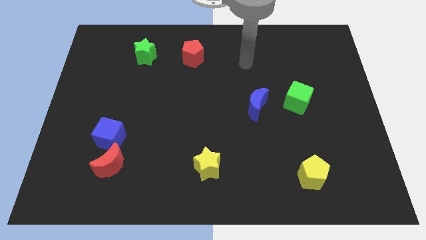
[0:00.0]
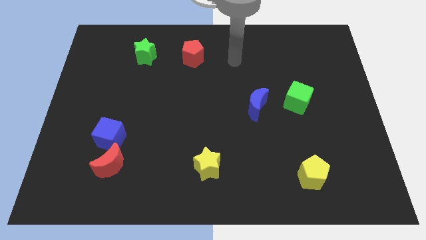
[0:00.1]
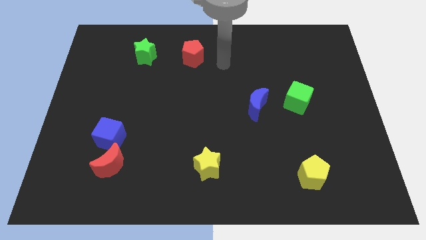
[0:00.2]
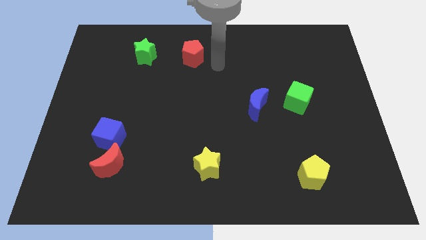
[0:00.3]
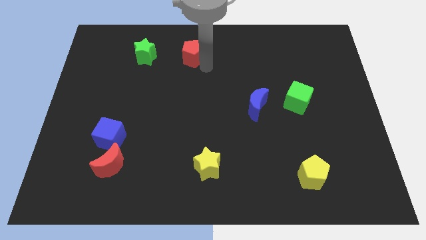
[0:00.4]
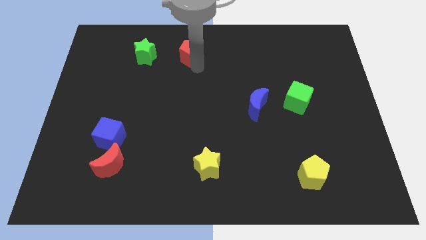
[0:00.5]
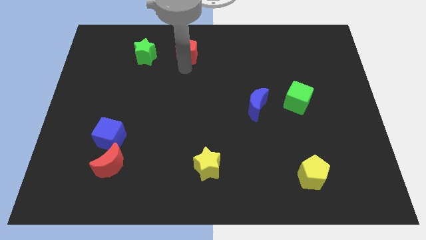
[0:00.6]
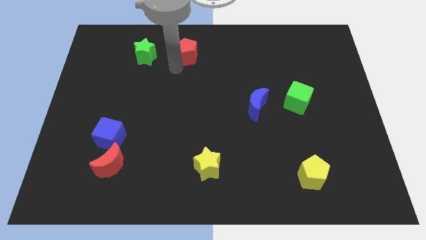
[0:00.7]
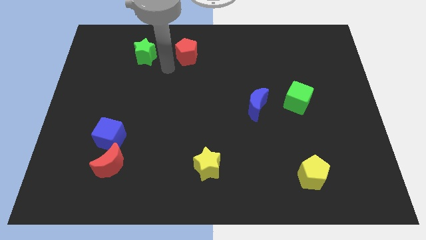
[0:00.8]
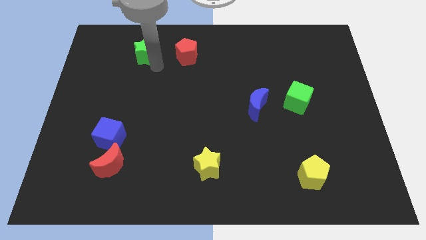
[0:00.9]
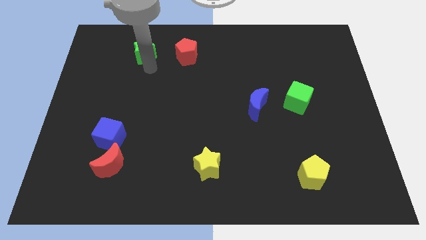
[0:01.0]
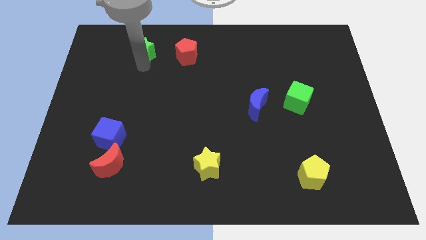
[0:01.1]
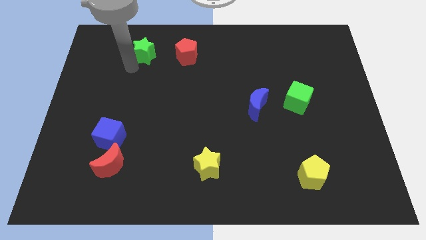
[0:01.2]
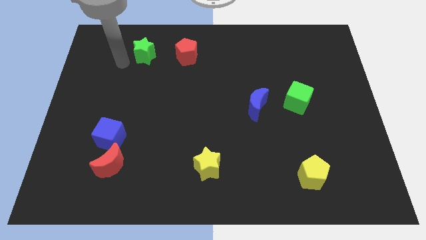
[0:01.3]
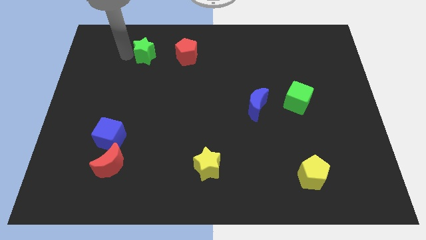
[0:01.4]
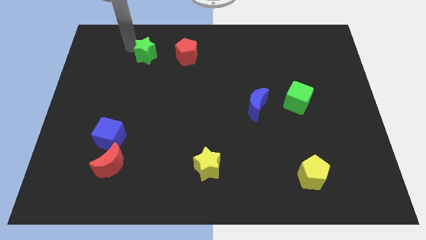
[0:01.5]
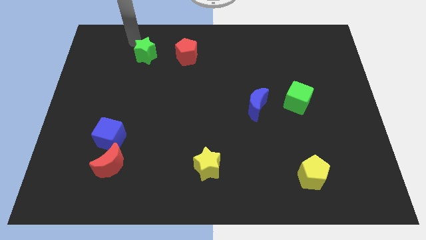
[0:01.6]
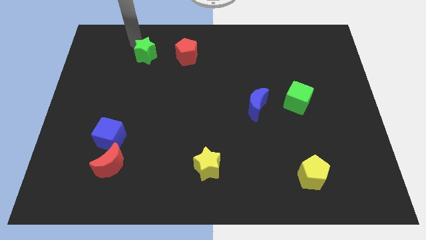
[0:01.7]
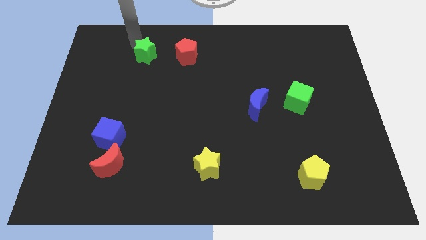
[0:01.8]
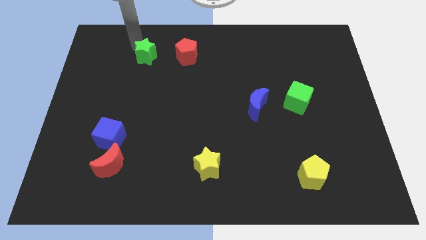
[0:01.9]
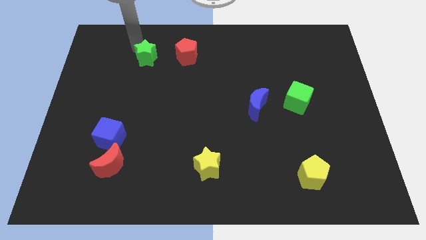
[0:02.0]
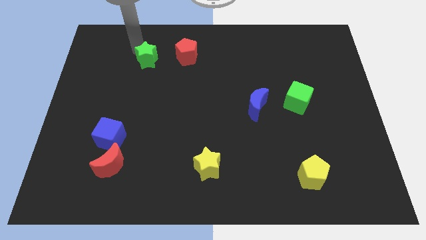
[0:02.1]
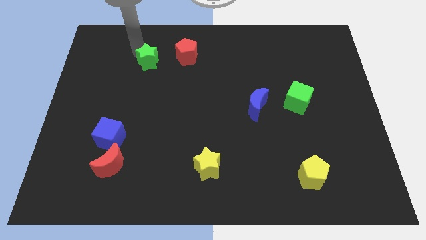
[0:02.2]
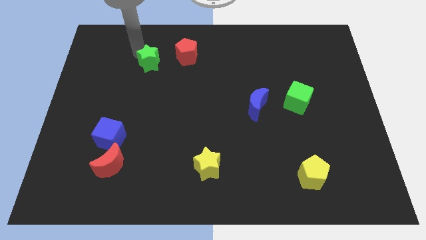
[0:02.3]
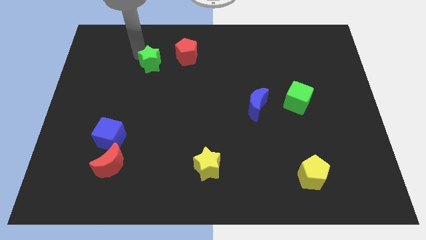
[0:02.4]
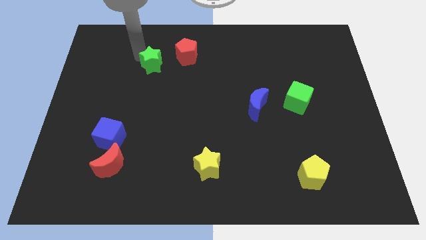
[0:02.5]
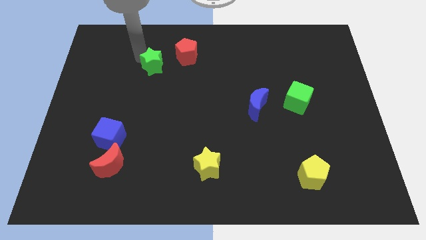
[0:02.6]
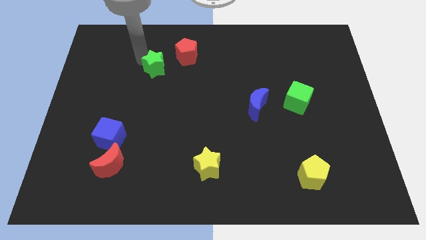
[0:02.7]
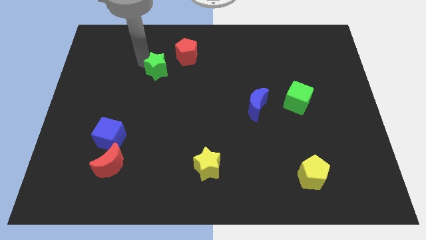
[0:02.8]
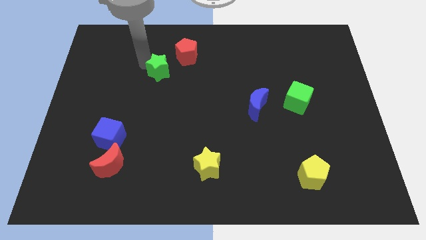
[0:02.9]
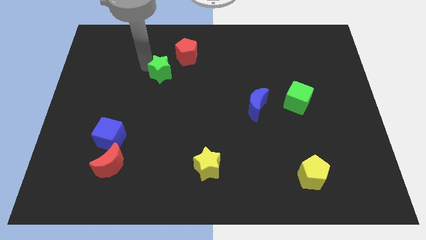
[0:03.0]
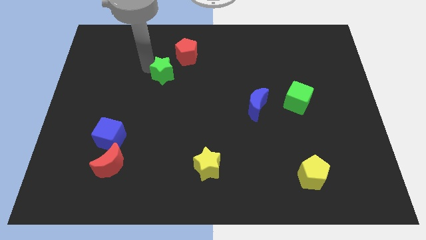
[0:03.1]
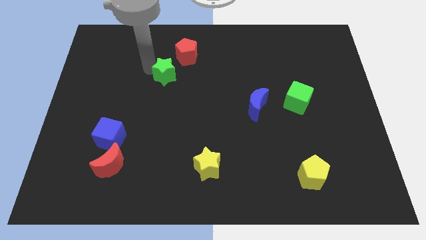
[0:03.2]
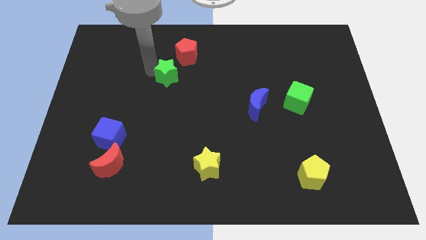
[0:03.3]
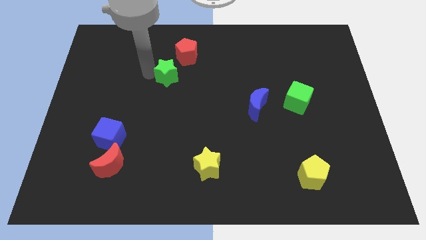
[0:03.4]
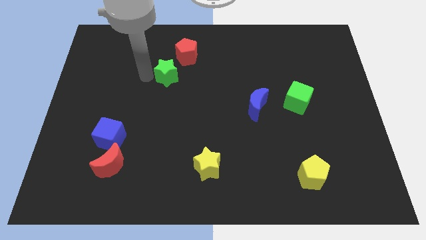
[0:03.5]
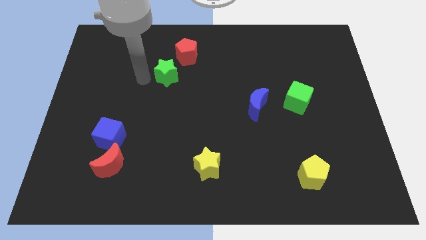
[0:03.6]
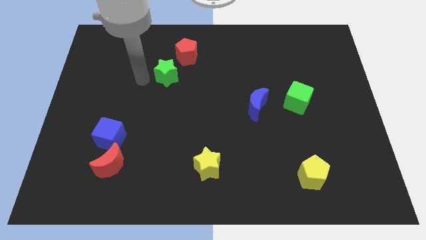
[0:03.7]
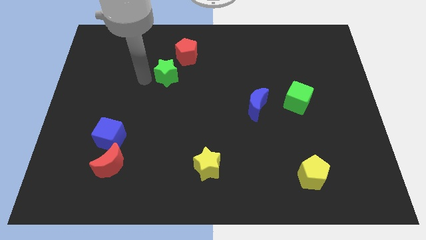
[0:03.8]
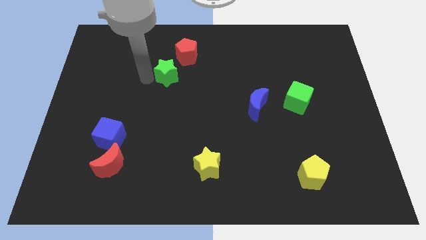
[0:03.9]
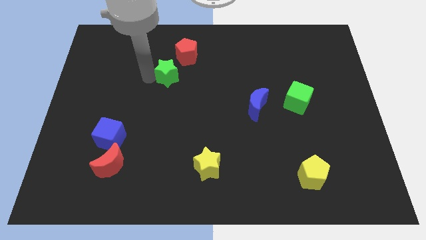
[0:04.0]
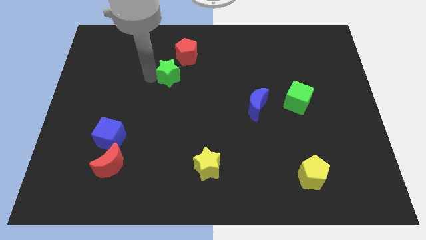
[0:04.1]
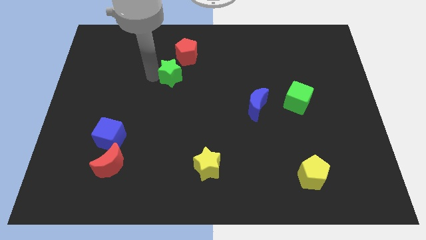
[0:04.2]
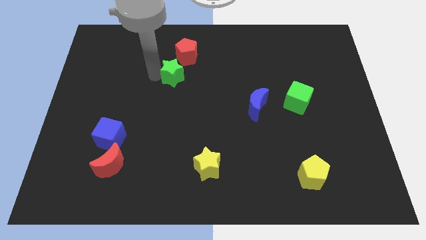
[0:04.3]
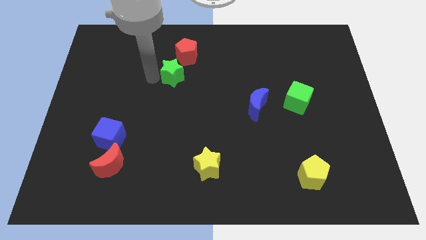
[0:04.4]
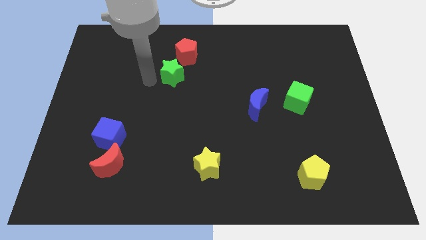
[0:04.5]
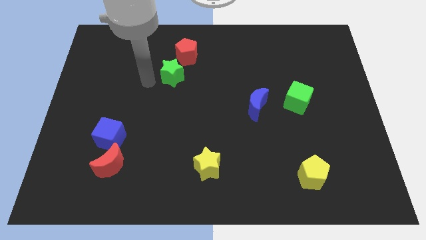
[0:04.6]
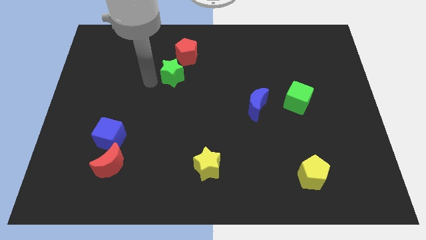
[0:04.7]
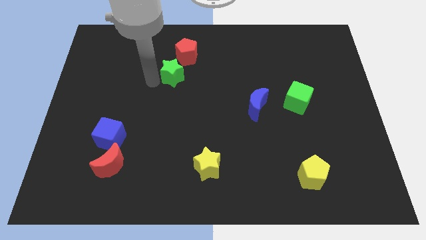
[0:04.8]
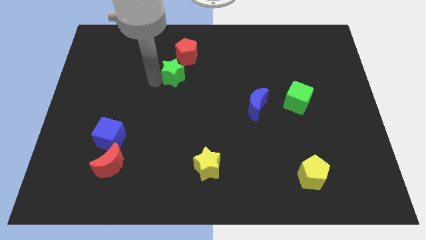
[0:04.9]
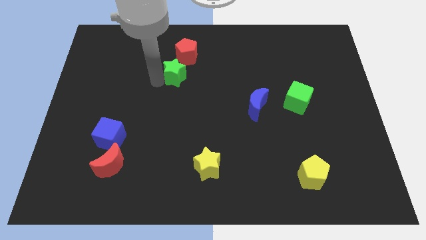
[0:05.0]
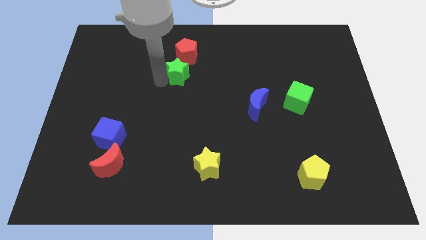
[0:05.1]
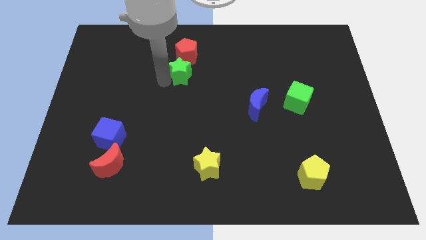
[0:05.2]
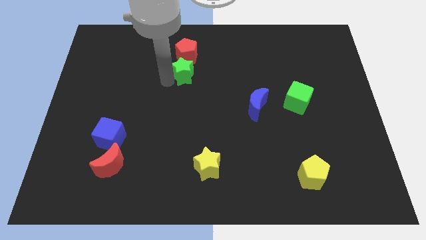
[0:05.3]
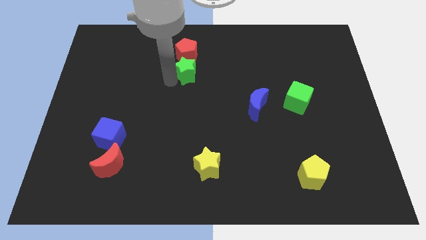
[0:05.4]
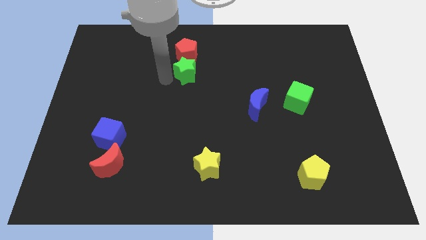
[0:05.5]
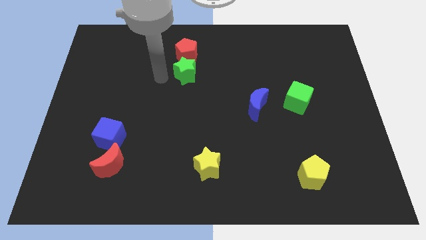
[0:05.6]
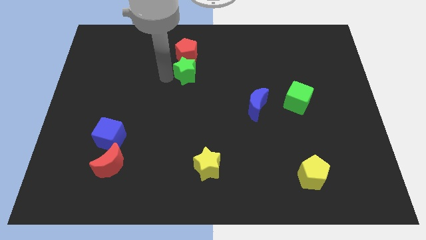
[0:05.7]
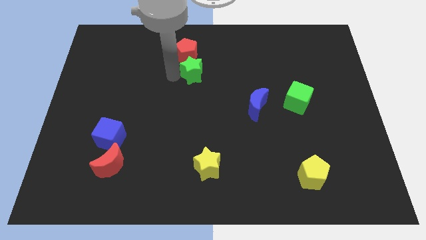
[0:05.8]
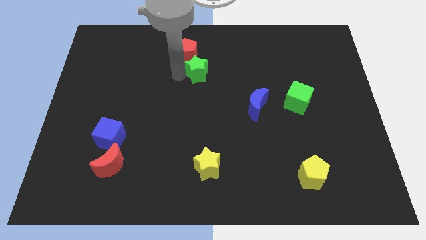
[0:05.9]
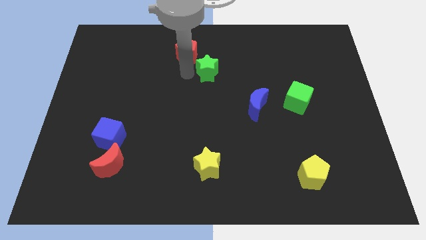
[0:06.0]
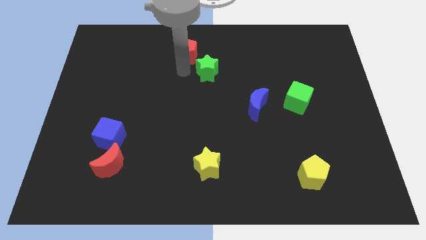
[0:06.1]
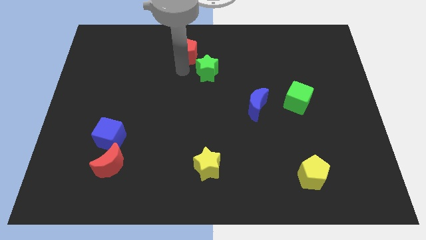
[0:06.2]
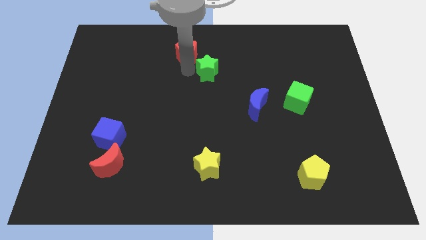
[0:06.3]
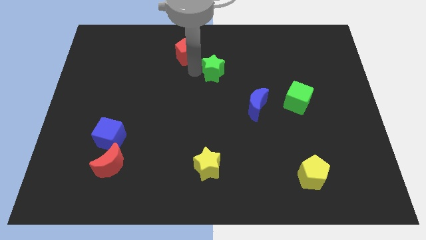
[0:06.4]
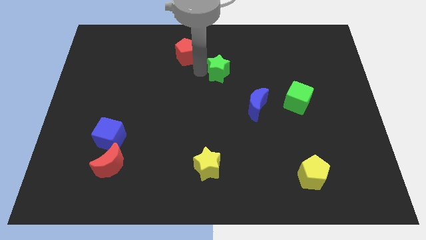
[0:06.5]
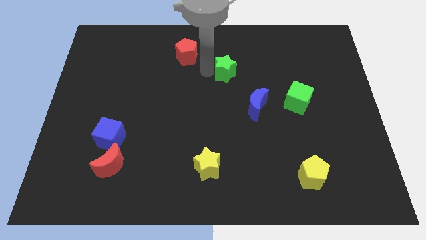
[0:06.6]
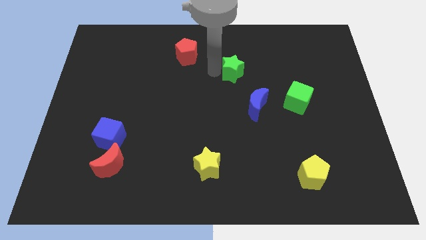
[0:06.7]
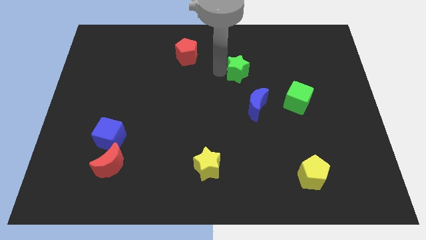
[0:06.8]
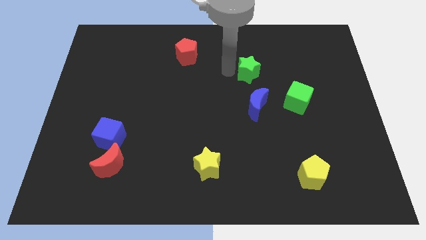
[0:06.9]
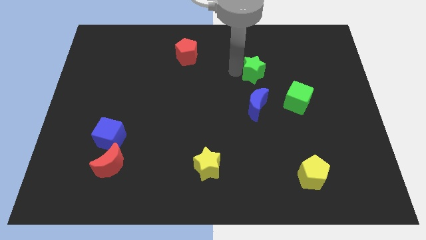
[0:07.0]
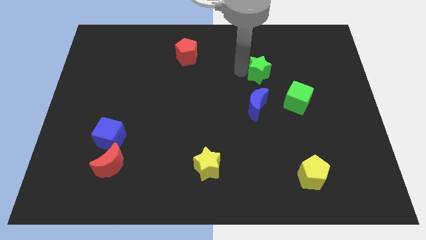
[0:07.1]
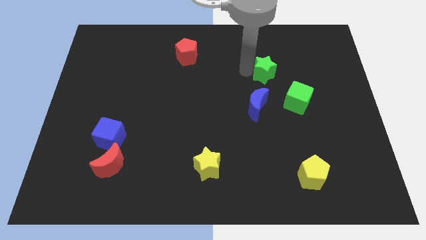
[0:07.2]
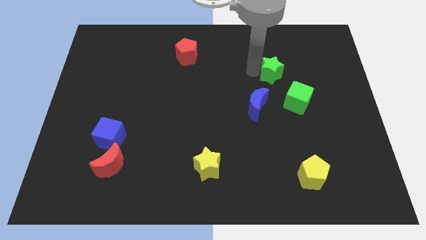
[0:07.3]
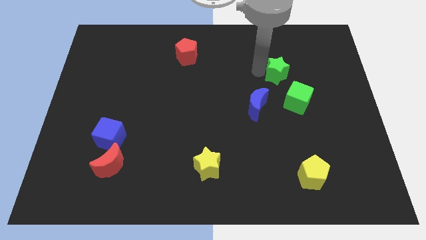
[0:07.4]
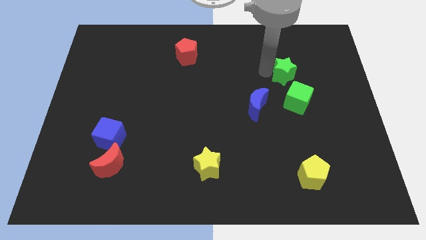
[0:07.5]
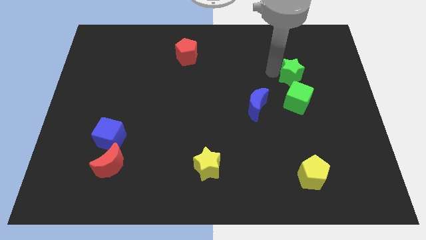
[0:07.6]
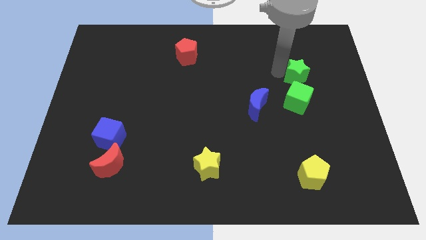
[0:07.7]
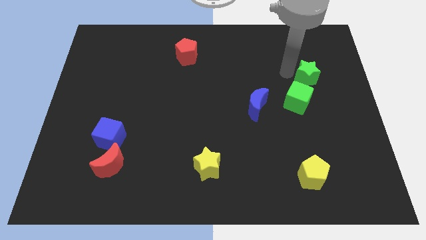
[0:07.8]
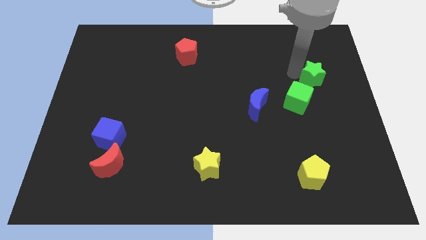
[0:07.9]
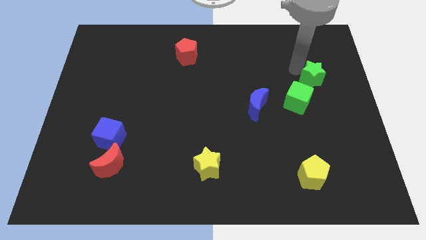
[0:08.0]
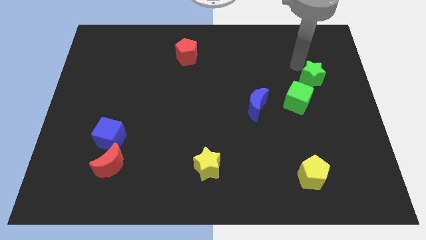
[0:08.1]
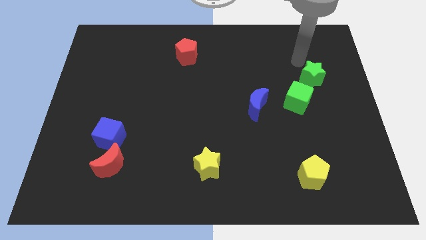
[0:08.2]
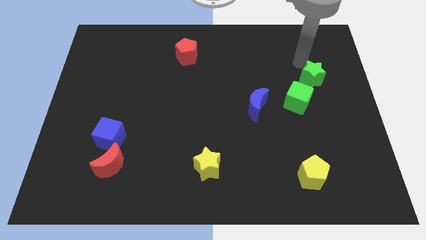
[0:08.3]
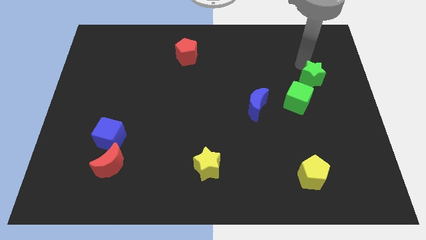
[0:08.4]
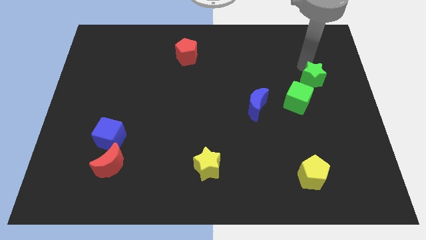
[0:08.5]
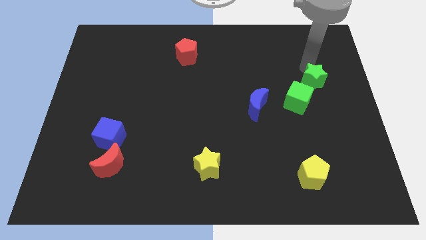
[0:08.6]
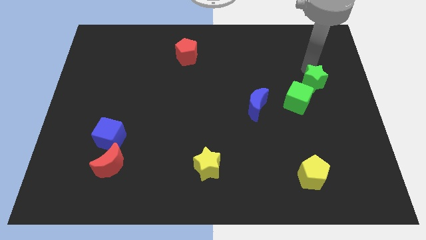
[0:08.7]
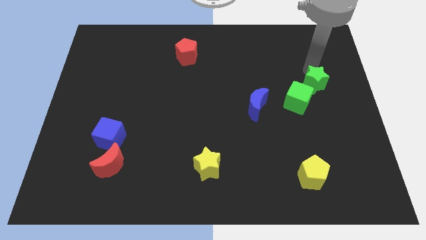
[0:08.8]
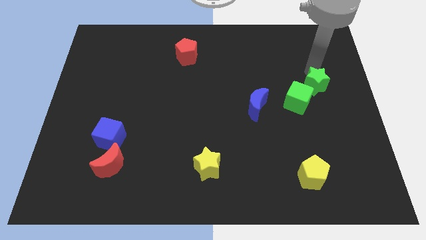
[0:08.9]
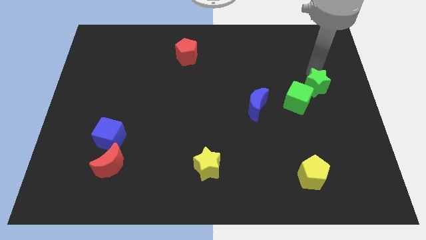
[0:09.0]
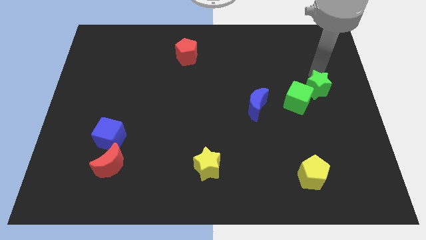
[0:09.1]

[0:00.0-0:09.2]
push the green star to the right side
